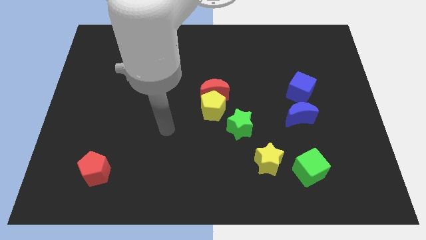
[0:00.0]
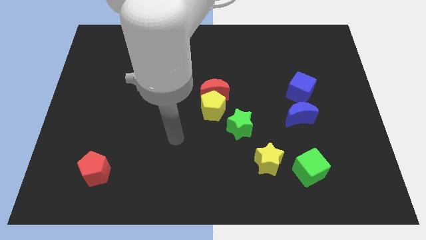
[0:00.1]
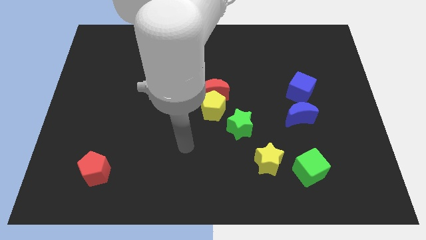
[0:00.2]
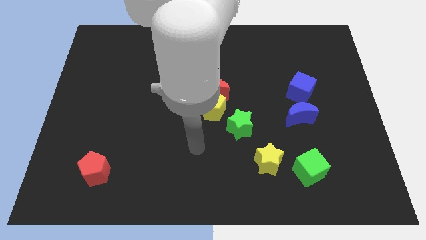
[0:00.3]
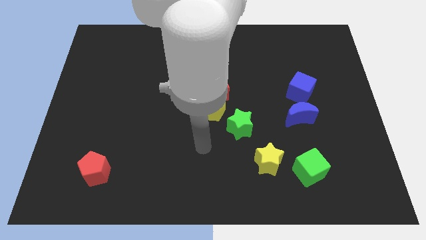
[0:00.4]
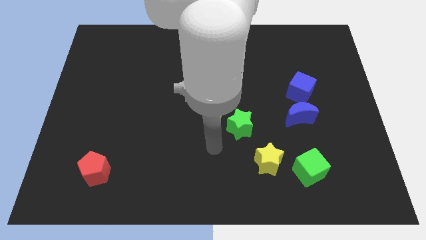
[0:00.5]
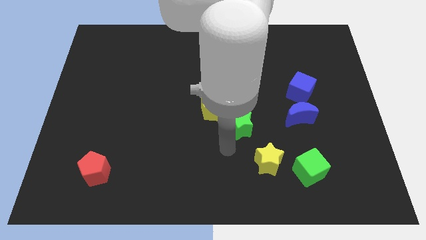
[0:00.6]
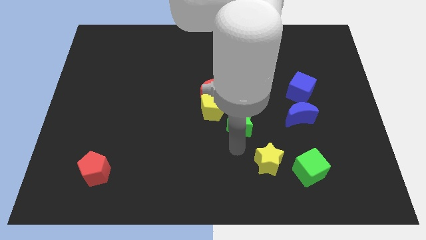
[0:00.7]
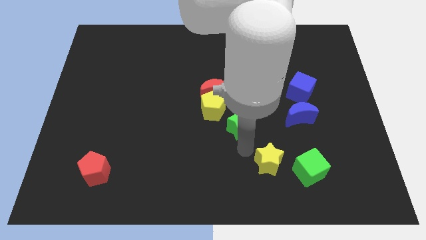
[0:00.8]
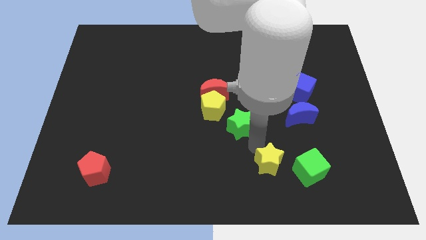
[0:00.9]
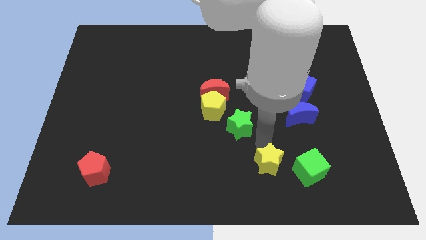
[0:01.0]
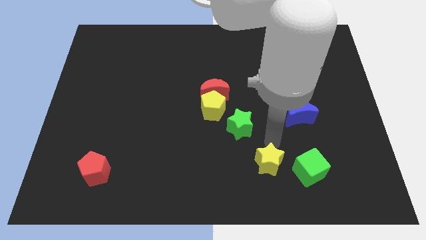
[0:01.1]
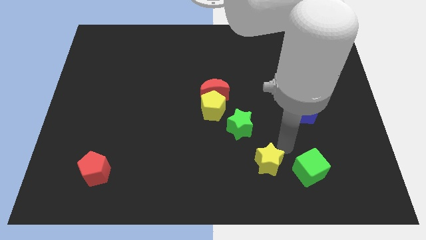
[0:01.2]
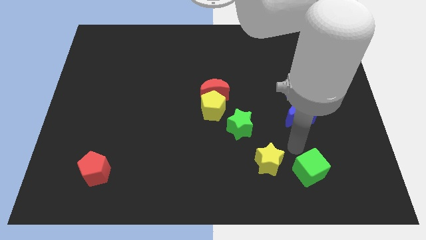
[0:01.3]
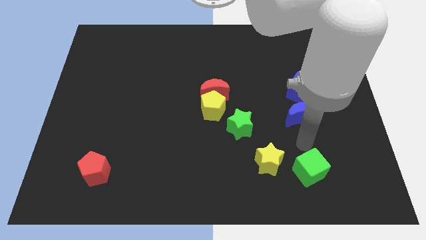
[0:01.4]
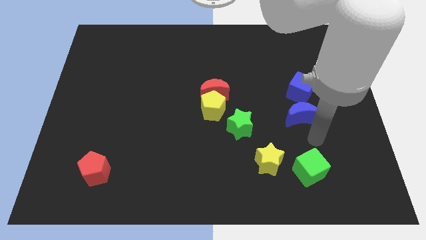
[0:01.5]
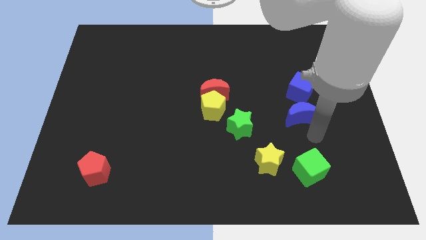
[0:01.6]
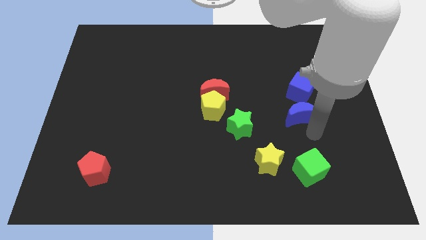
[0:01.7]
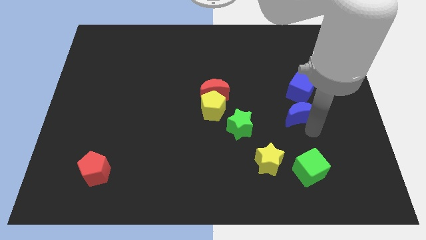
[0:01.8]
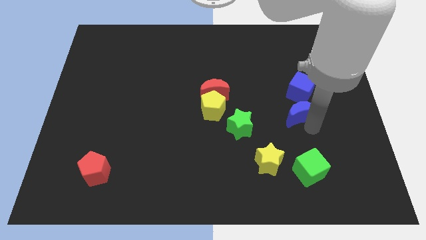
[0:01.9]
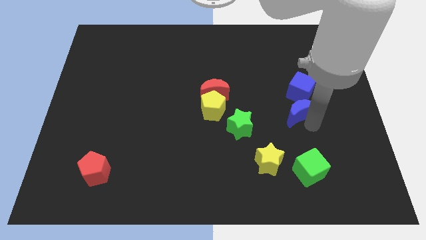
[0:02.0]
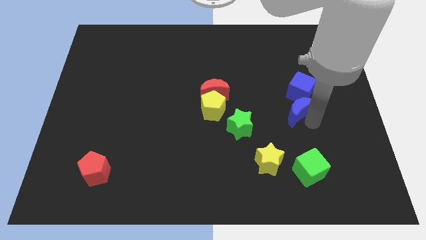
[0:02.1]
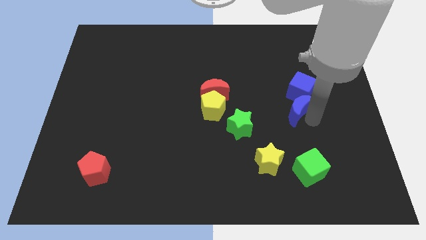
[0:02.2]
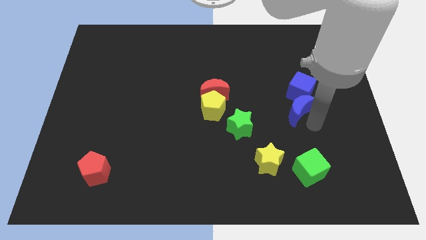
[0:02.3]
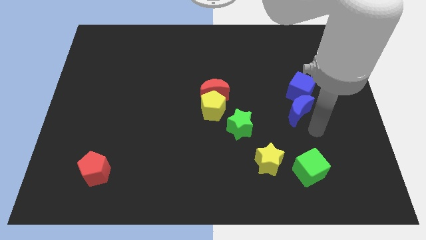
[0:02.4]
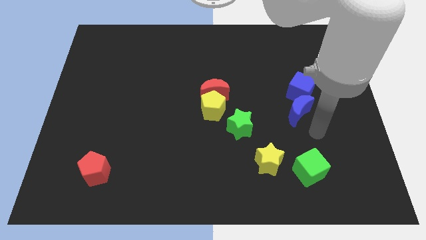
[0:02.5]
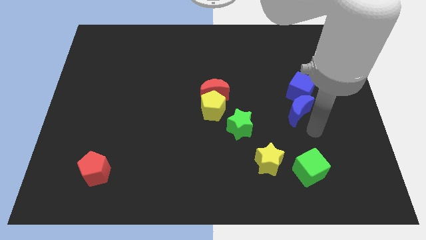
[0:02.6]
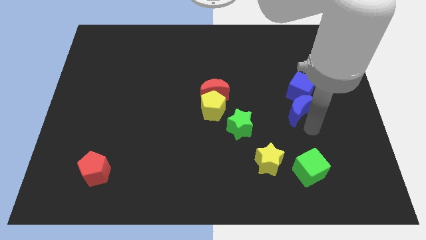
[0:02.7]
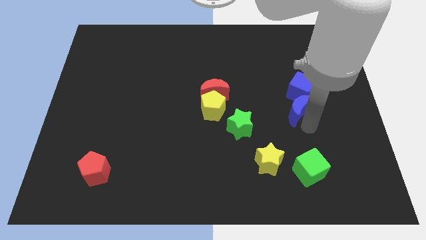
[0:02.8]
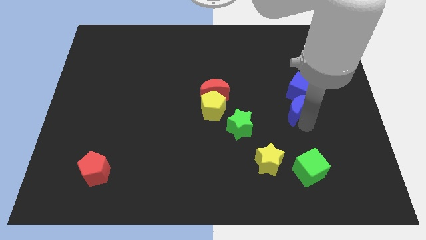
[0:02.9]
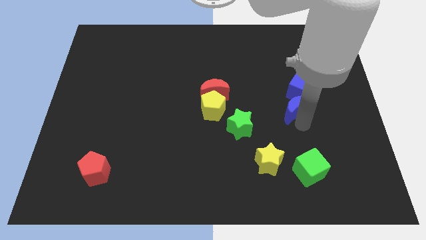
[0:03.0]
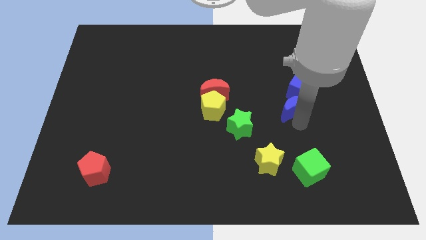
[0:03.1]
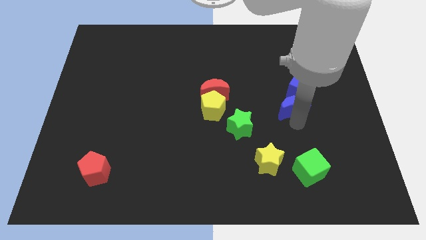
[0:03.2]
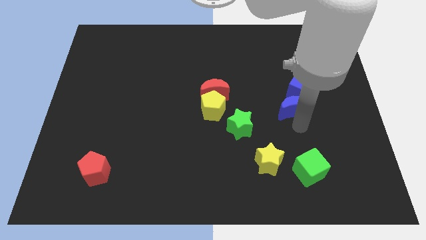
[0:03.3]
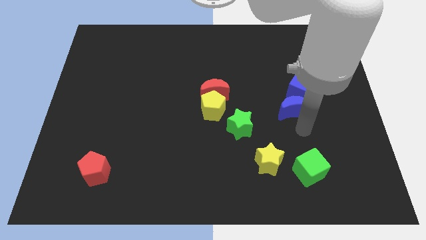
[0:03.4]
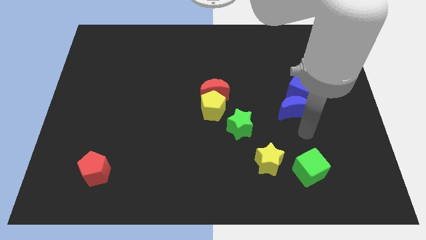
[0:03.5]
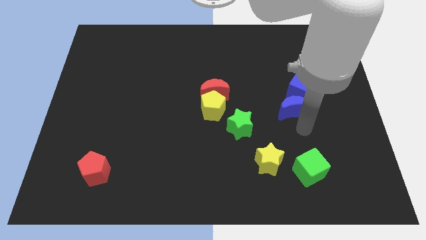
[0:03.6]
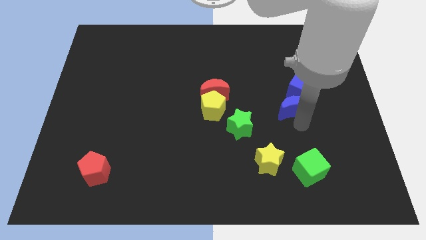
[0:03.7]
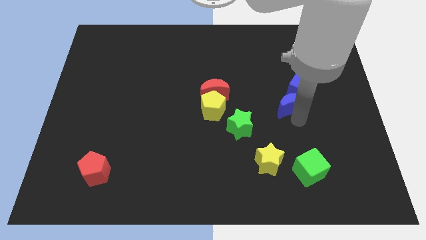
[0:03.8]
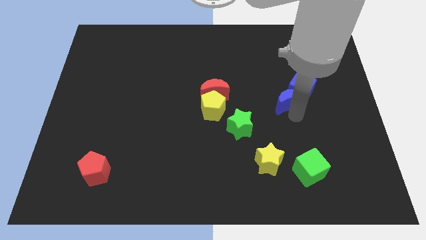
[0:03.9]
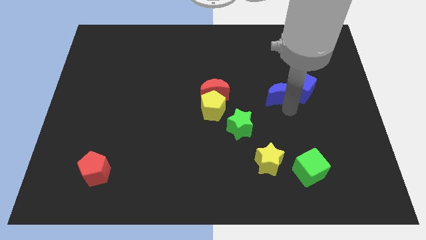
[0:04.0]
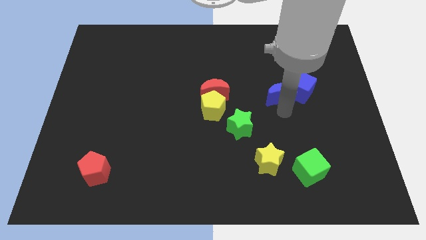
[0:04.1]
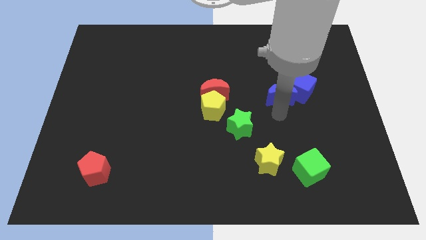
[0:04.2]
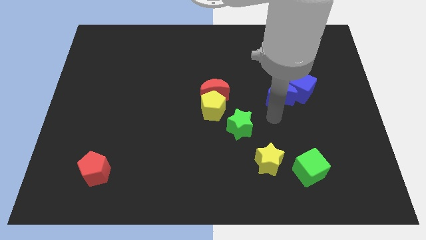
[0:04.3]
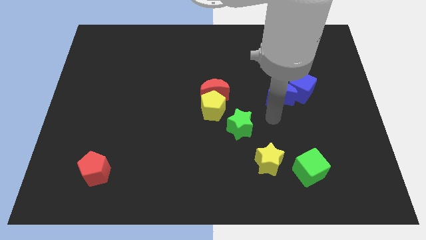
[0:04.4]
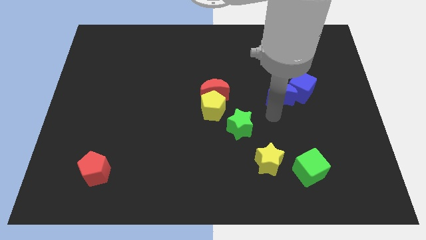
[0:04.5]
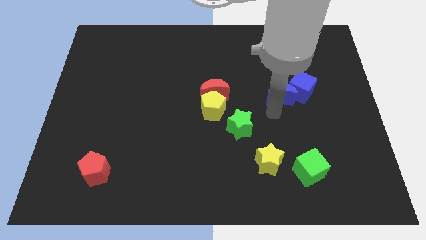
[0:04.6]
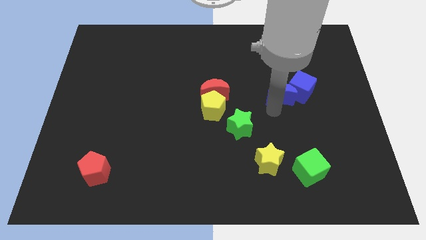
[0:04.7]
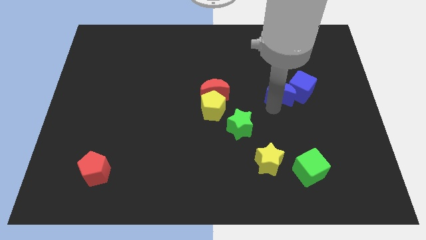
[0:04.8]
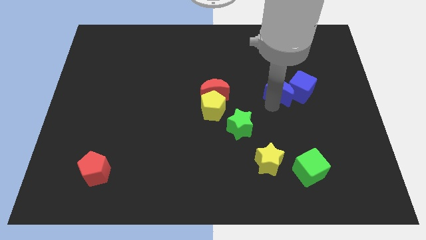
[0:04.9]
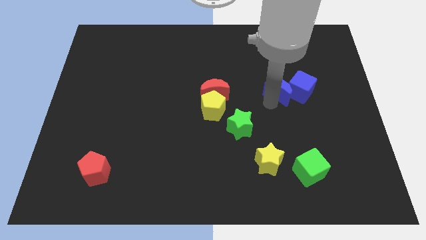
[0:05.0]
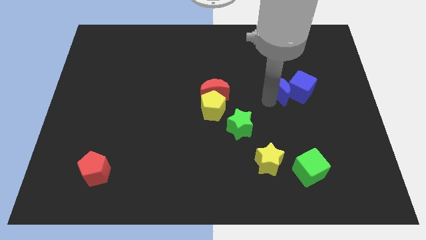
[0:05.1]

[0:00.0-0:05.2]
slide the blue moon upwards a little bit

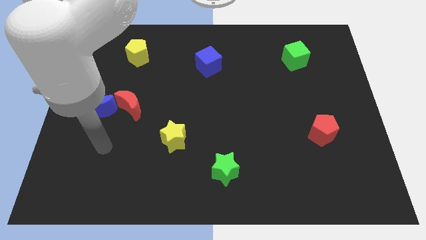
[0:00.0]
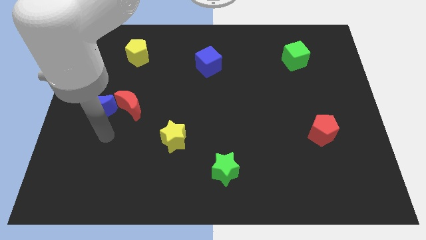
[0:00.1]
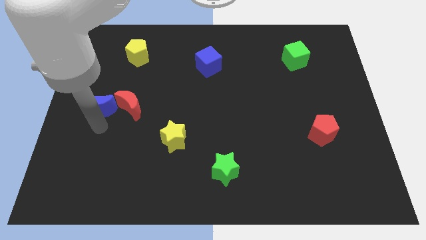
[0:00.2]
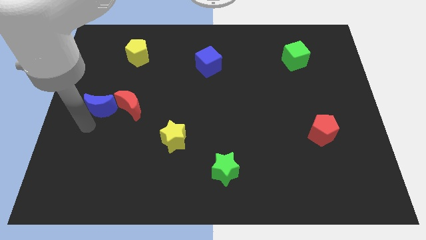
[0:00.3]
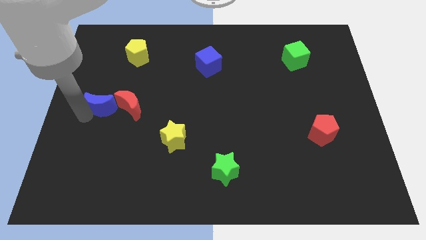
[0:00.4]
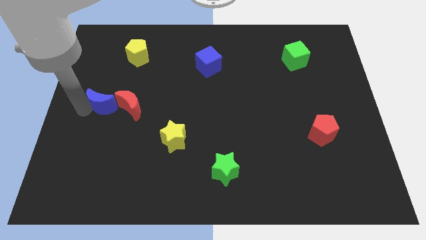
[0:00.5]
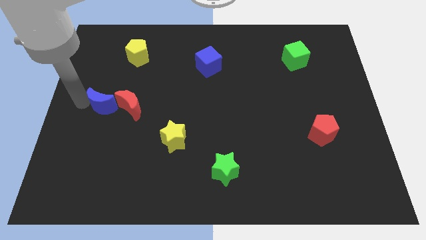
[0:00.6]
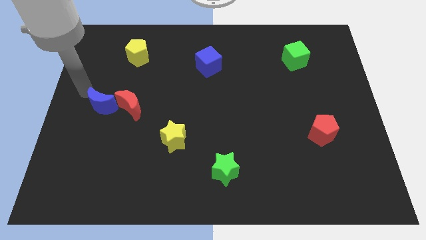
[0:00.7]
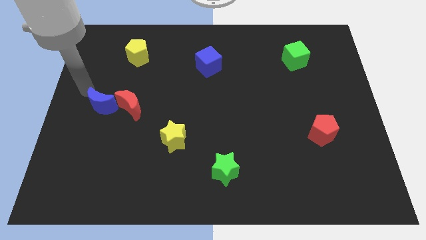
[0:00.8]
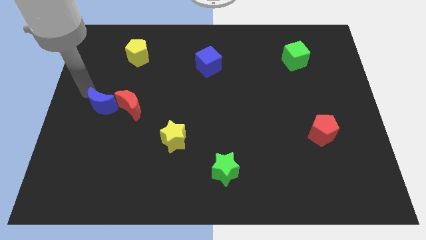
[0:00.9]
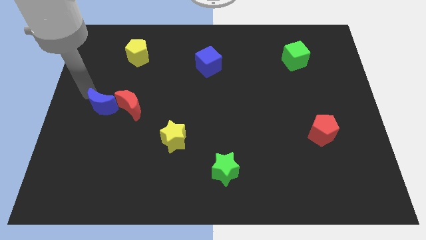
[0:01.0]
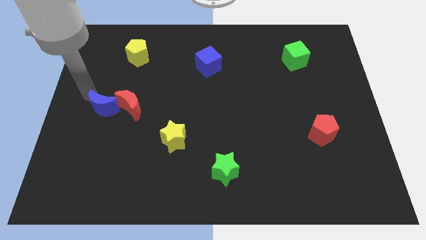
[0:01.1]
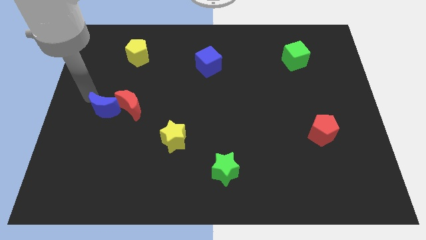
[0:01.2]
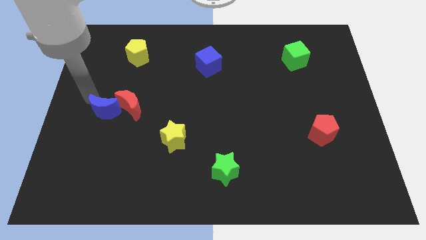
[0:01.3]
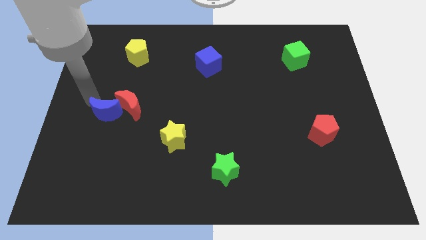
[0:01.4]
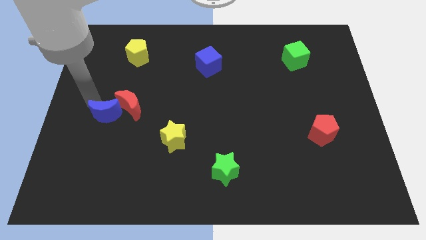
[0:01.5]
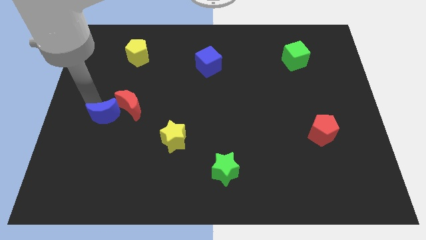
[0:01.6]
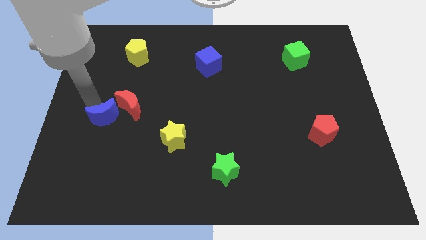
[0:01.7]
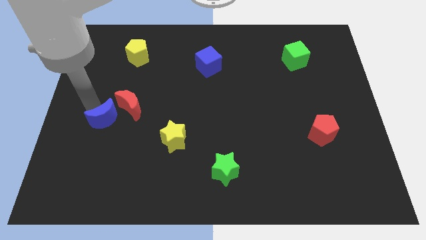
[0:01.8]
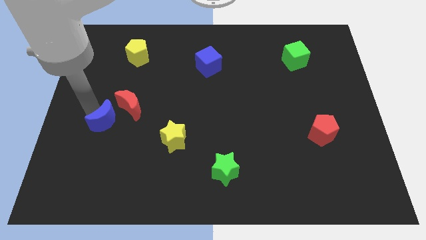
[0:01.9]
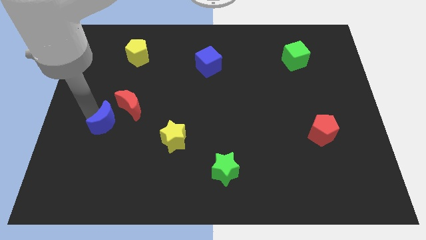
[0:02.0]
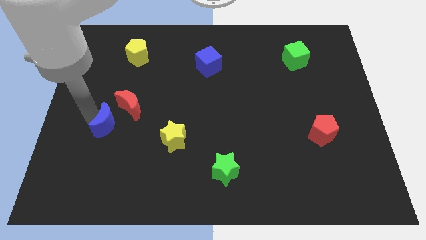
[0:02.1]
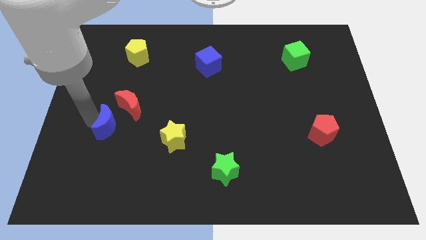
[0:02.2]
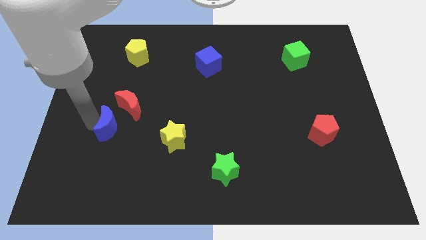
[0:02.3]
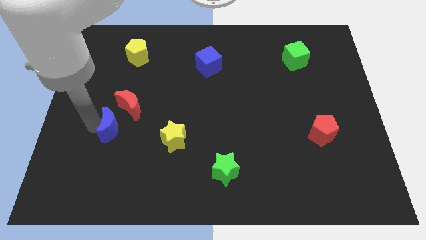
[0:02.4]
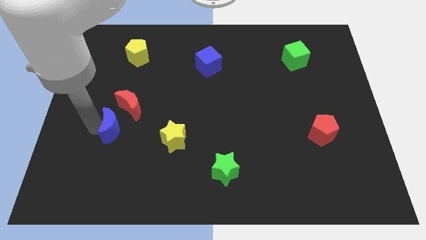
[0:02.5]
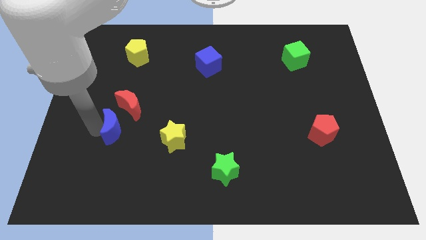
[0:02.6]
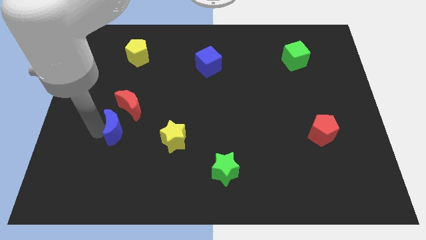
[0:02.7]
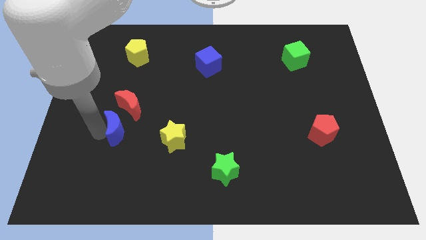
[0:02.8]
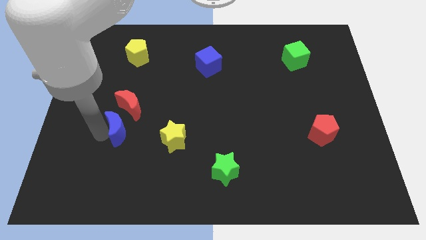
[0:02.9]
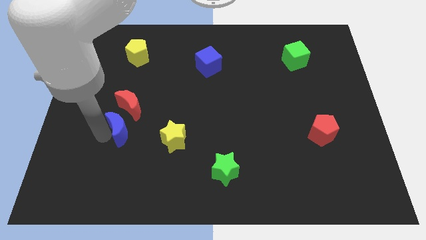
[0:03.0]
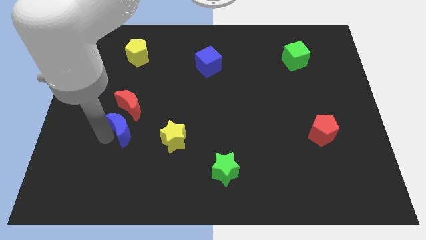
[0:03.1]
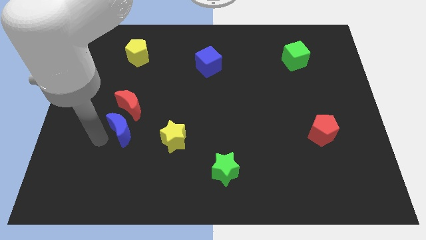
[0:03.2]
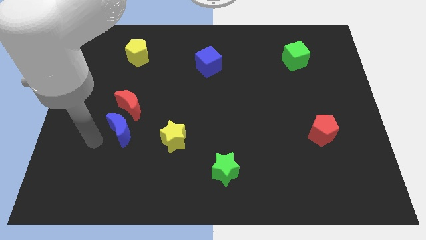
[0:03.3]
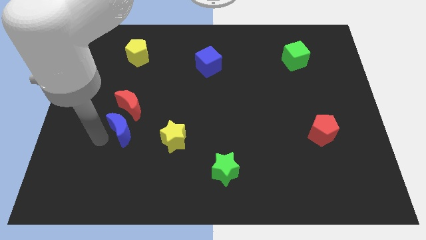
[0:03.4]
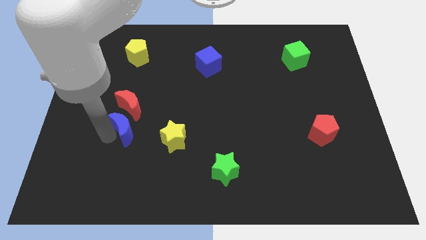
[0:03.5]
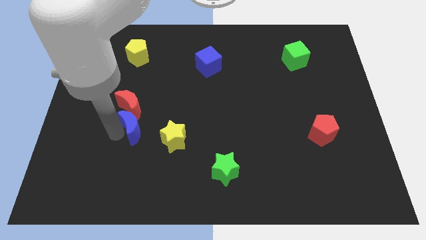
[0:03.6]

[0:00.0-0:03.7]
move the blue moon to the right a little bit
